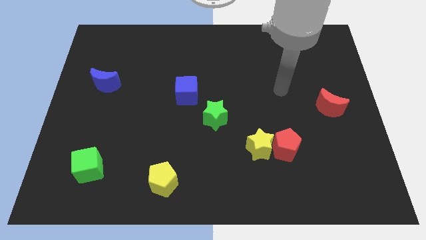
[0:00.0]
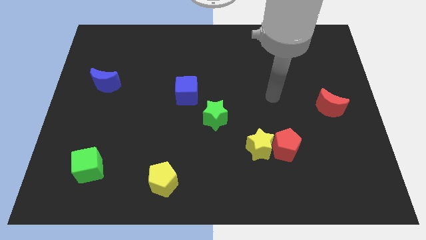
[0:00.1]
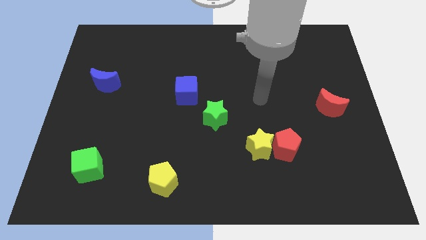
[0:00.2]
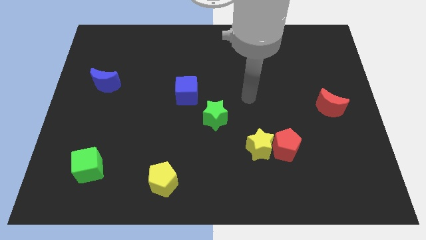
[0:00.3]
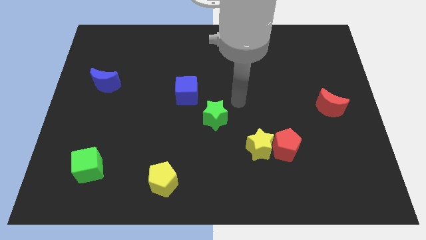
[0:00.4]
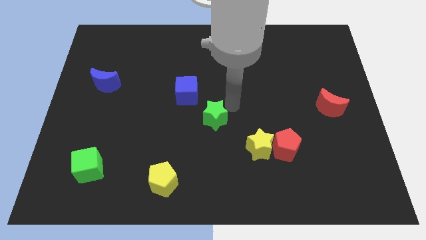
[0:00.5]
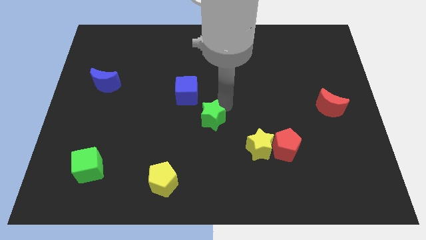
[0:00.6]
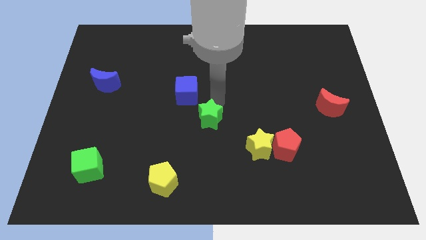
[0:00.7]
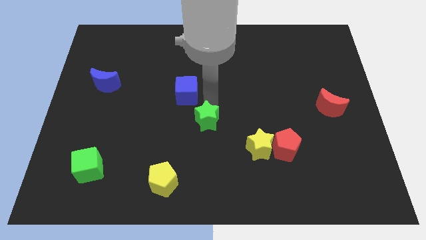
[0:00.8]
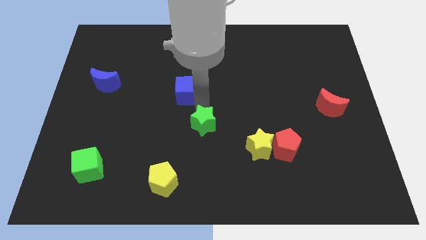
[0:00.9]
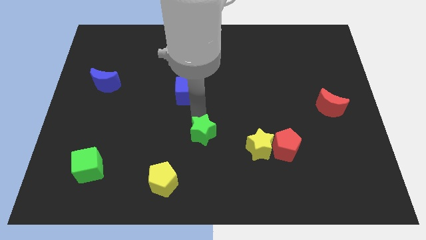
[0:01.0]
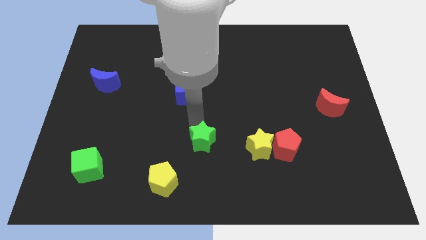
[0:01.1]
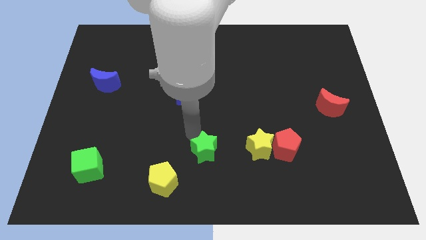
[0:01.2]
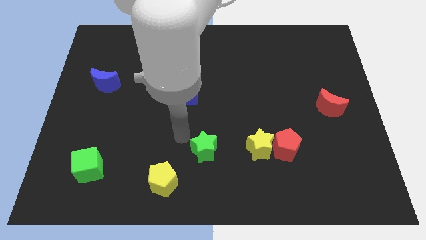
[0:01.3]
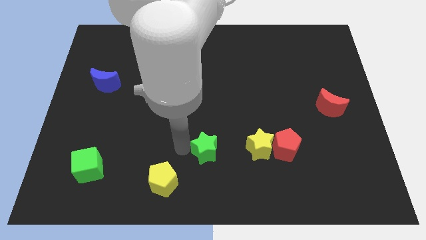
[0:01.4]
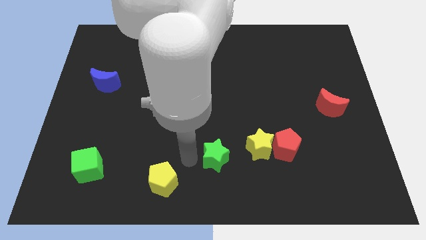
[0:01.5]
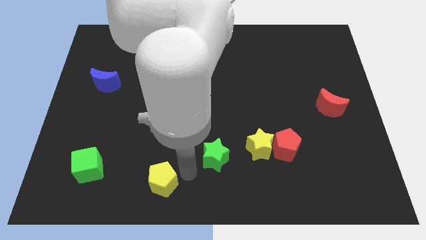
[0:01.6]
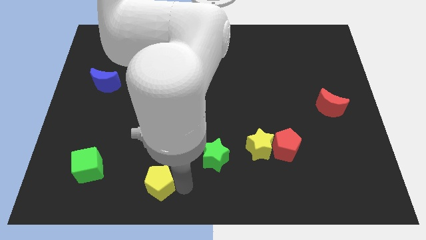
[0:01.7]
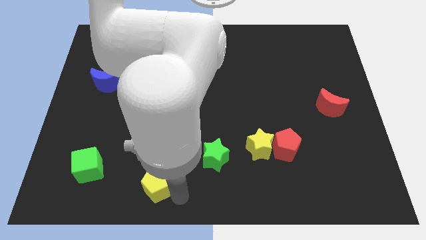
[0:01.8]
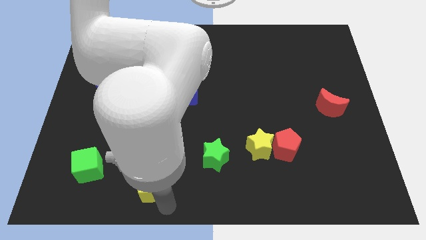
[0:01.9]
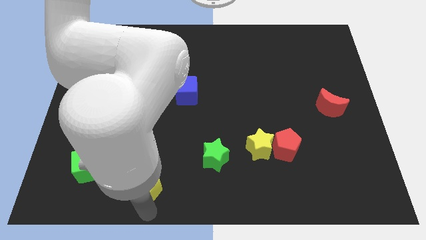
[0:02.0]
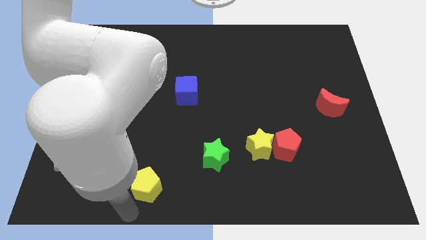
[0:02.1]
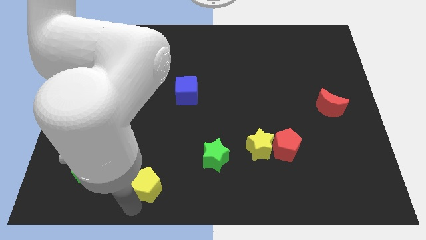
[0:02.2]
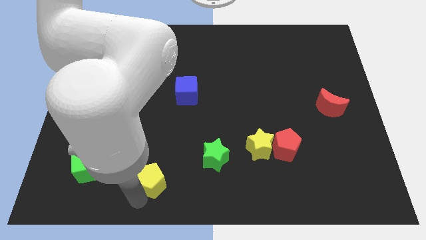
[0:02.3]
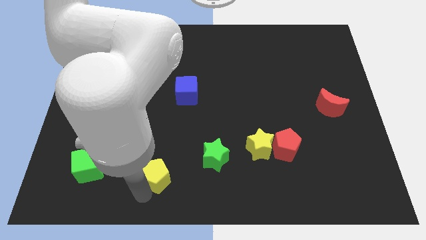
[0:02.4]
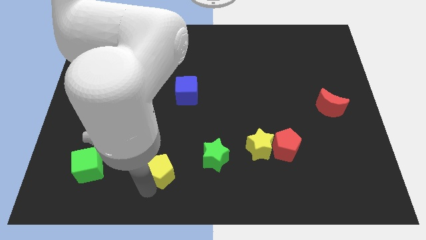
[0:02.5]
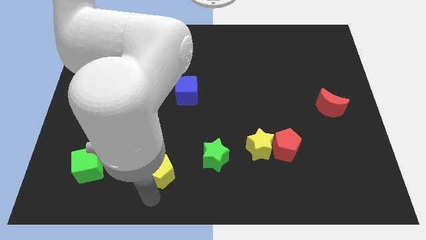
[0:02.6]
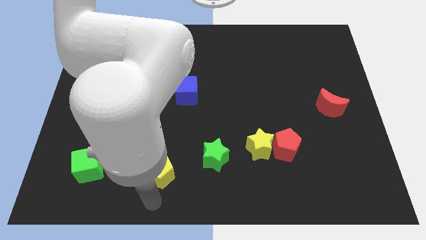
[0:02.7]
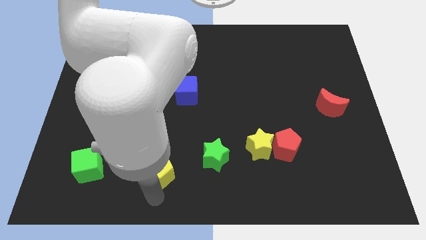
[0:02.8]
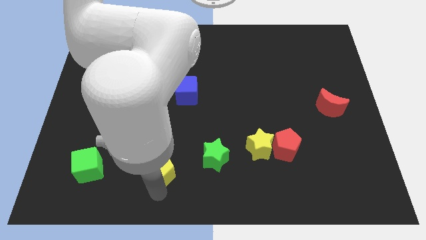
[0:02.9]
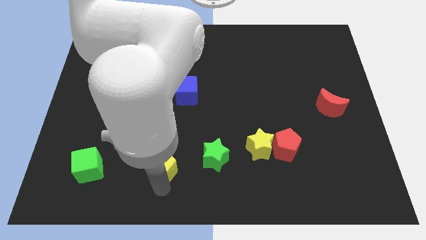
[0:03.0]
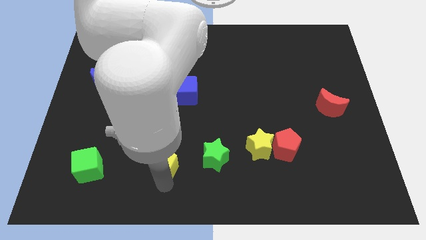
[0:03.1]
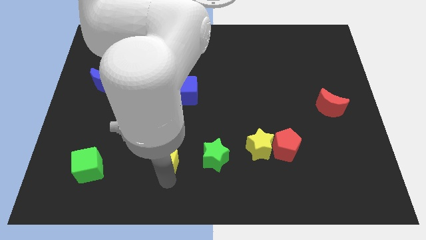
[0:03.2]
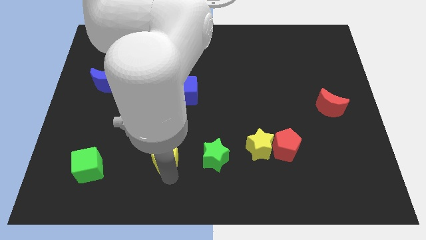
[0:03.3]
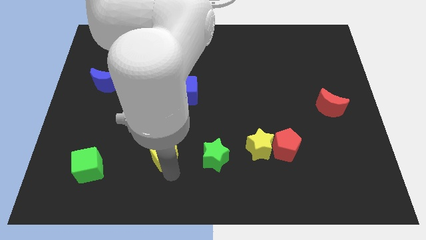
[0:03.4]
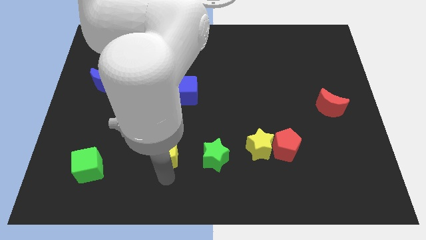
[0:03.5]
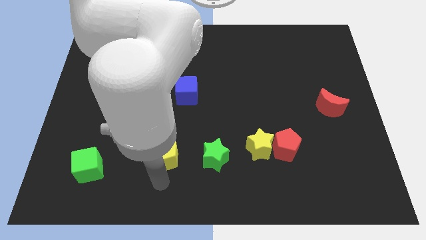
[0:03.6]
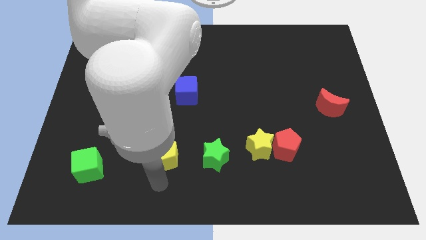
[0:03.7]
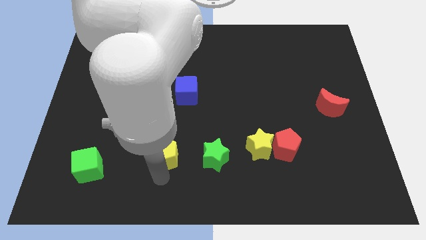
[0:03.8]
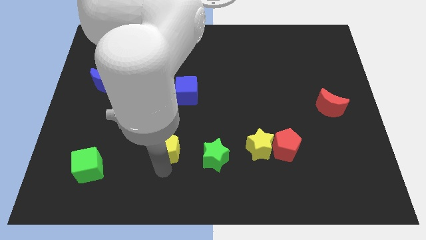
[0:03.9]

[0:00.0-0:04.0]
move the yellow pentagon upwards a bit

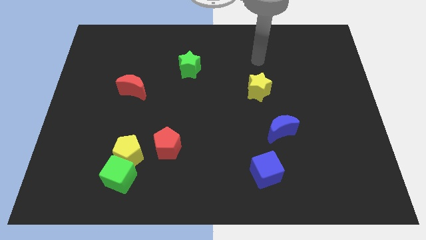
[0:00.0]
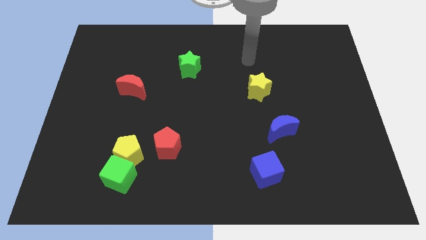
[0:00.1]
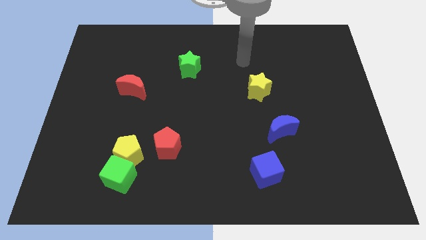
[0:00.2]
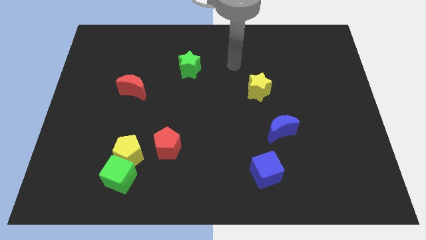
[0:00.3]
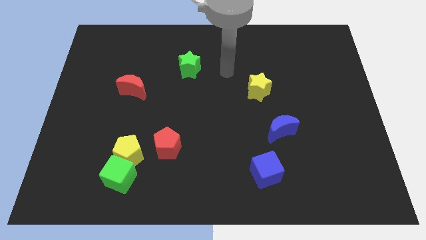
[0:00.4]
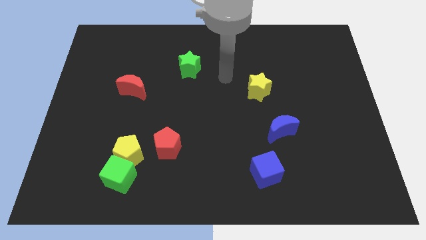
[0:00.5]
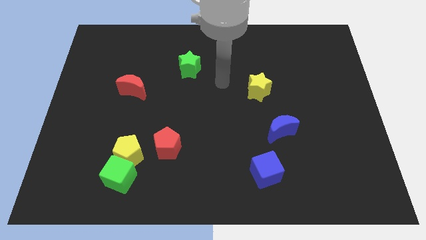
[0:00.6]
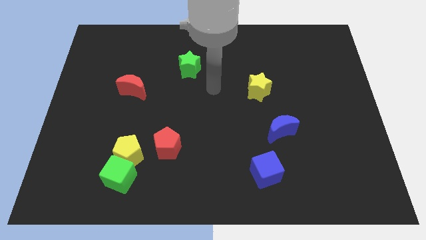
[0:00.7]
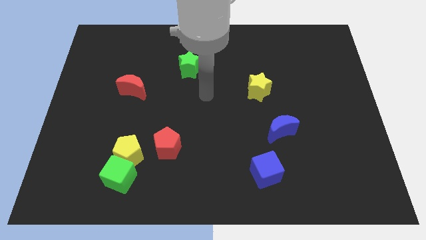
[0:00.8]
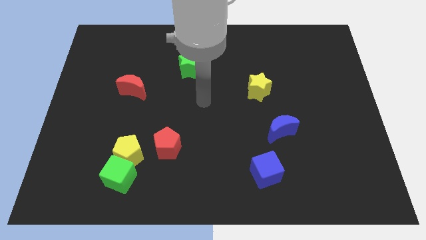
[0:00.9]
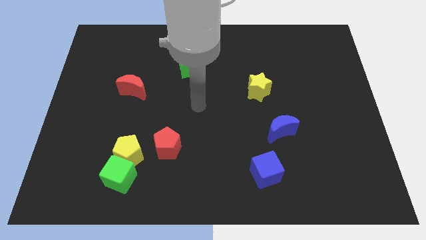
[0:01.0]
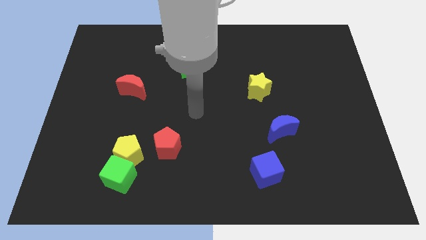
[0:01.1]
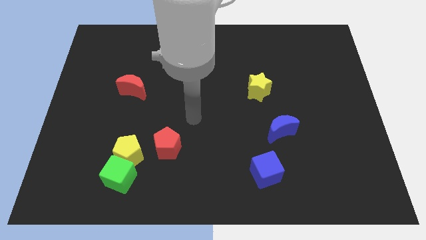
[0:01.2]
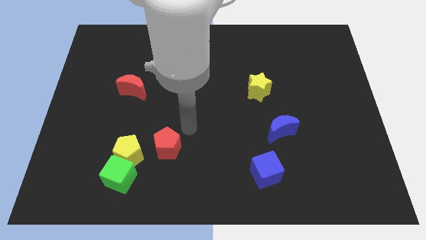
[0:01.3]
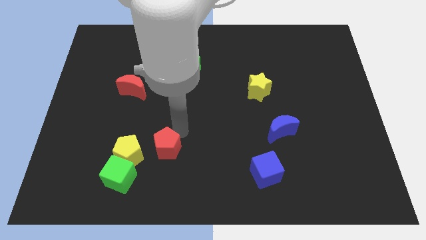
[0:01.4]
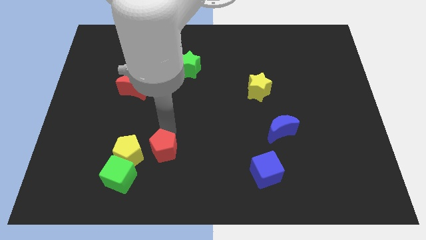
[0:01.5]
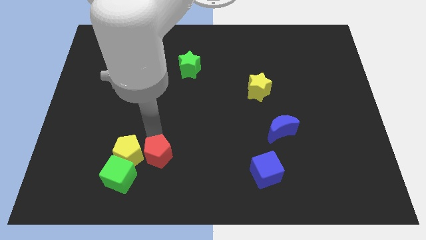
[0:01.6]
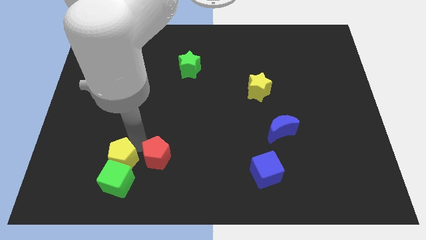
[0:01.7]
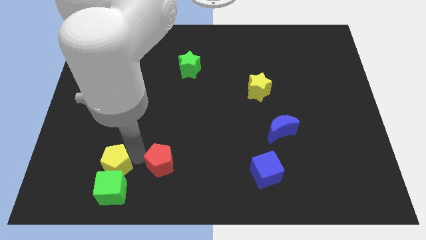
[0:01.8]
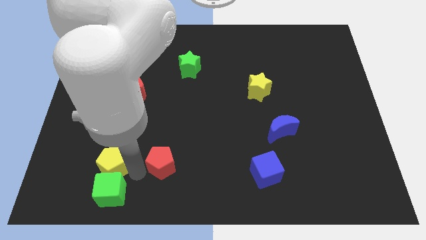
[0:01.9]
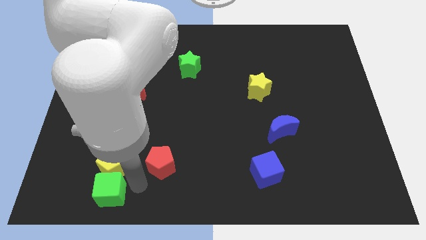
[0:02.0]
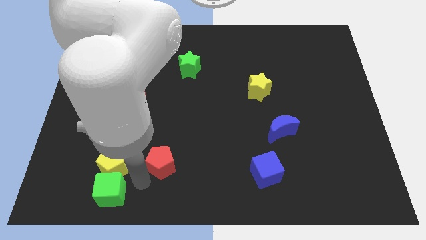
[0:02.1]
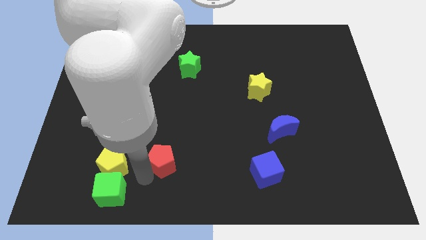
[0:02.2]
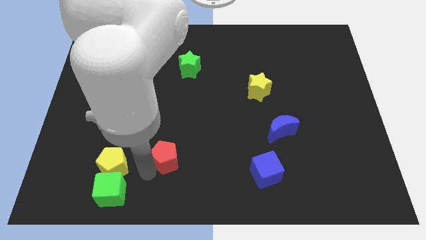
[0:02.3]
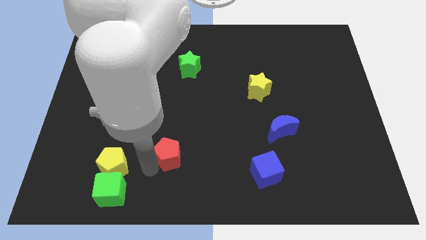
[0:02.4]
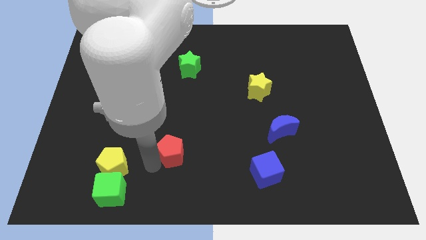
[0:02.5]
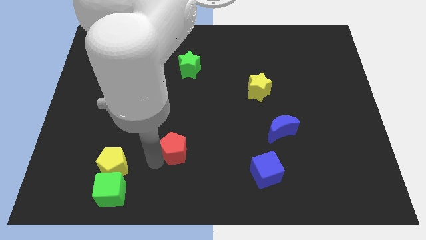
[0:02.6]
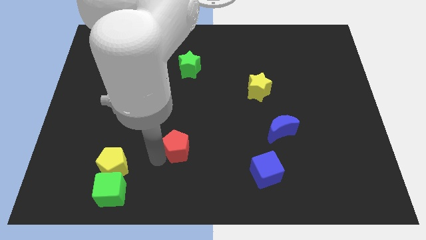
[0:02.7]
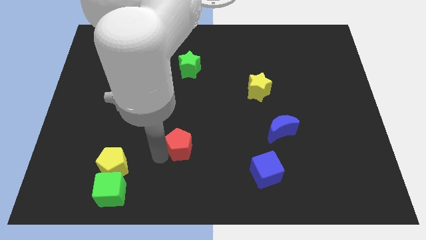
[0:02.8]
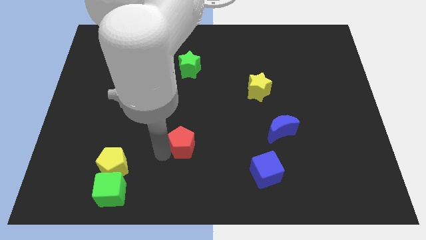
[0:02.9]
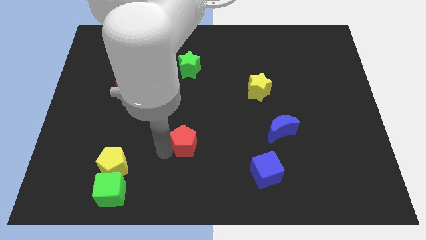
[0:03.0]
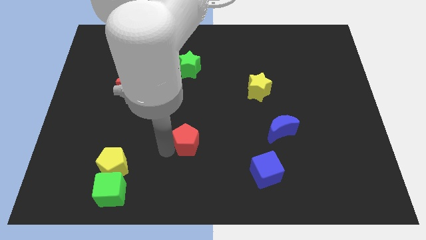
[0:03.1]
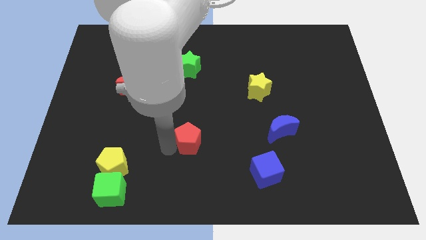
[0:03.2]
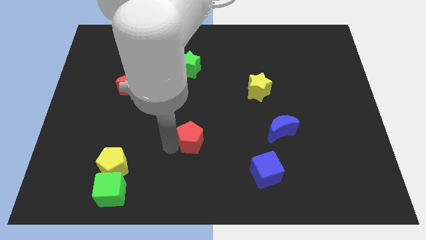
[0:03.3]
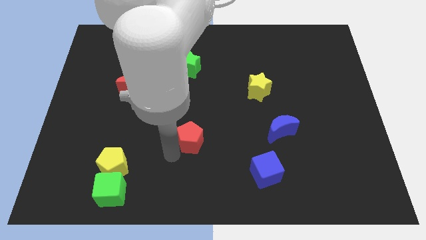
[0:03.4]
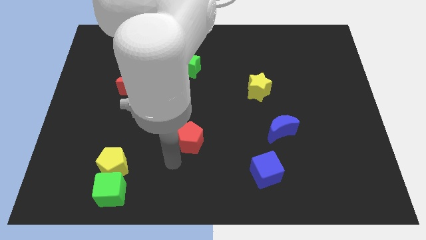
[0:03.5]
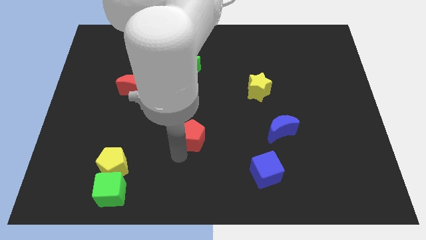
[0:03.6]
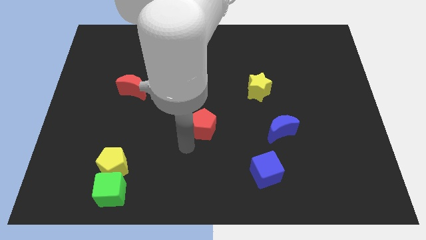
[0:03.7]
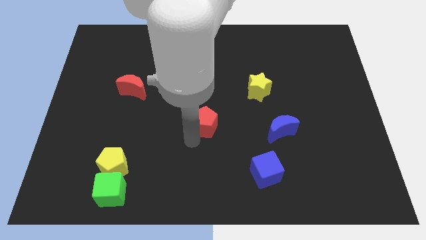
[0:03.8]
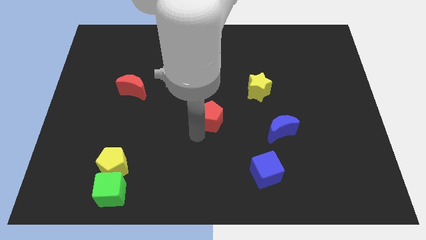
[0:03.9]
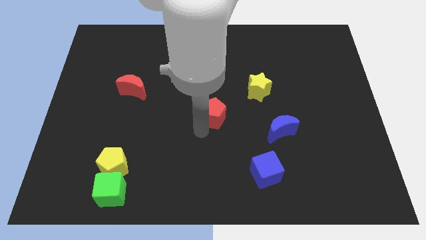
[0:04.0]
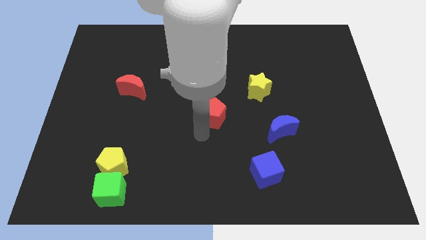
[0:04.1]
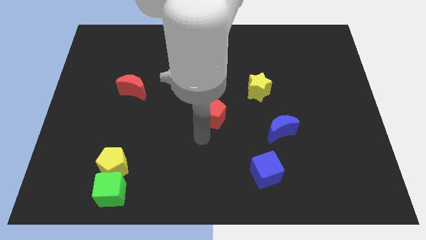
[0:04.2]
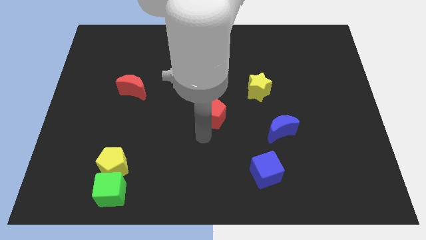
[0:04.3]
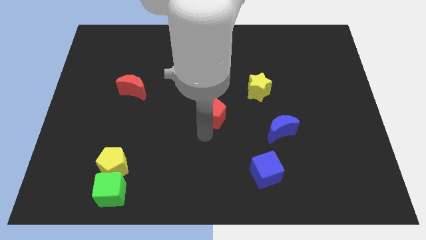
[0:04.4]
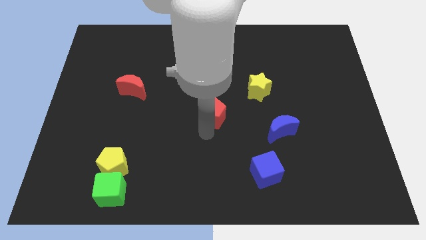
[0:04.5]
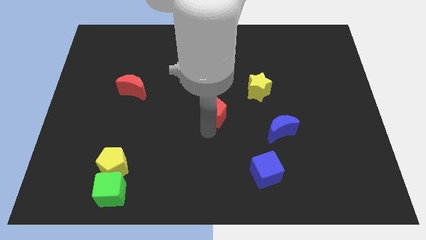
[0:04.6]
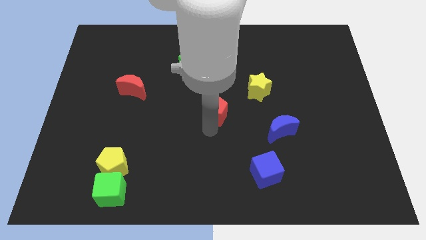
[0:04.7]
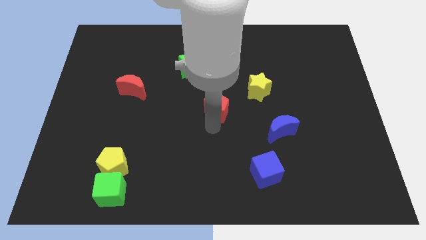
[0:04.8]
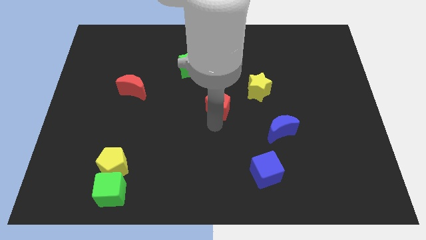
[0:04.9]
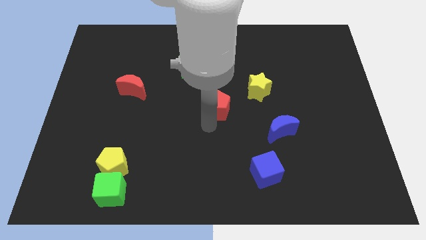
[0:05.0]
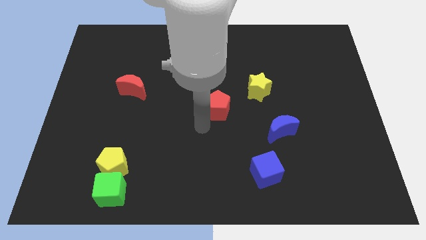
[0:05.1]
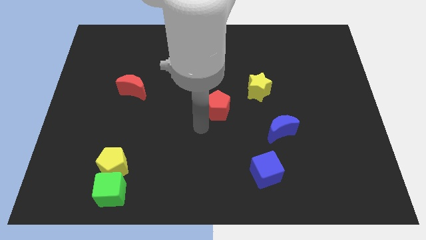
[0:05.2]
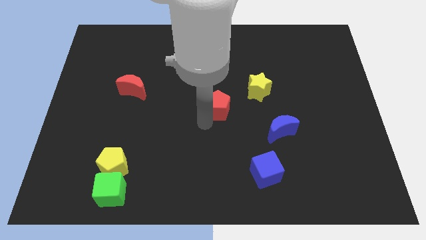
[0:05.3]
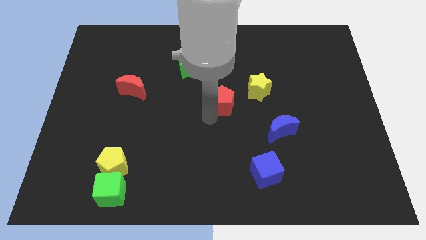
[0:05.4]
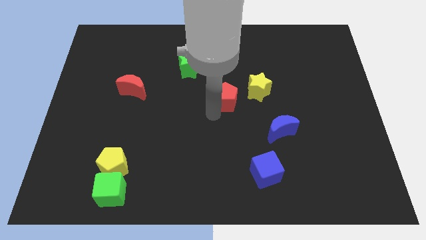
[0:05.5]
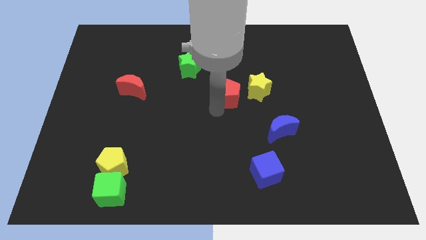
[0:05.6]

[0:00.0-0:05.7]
push the red pentagon upwards and right diagonally
